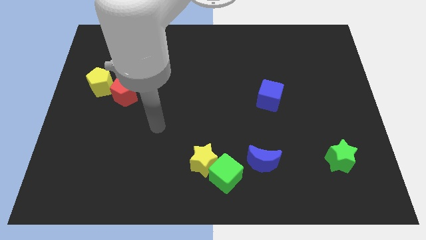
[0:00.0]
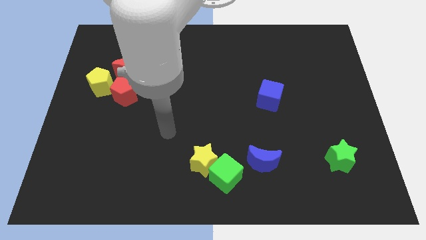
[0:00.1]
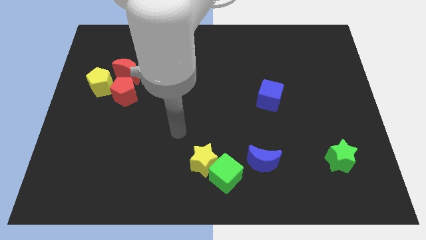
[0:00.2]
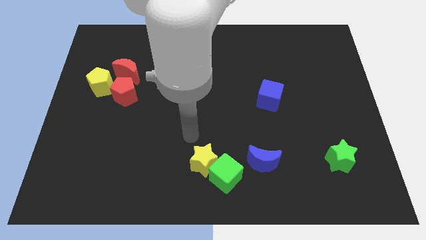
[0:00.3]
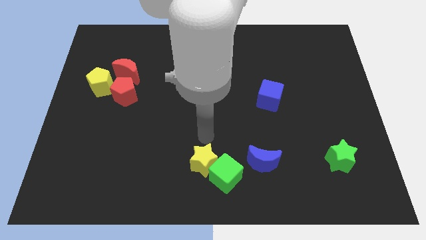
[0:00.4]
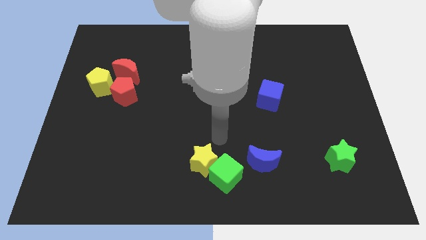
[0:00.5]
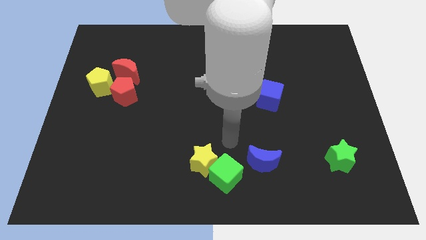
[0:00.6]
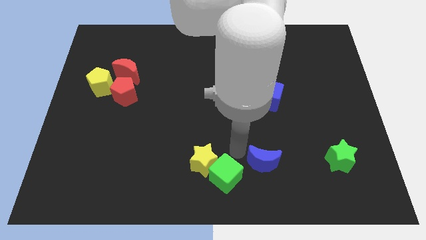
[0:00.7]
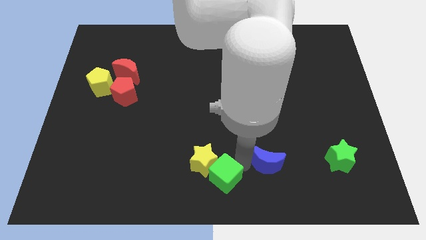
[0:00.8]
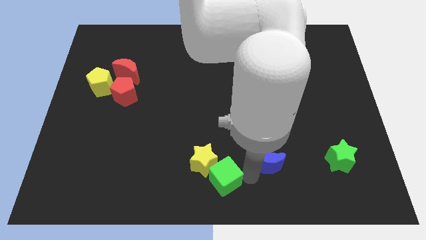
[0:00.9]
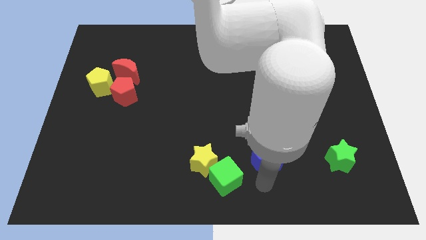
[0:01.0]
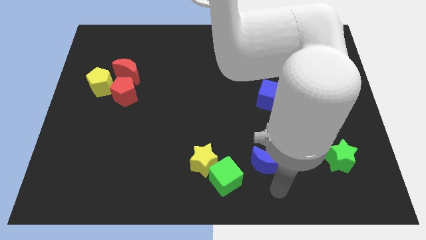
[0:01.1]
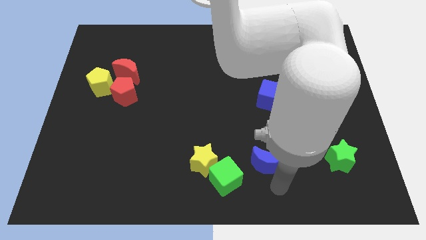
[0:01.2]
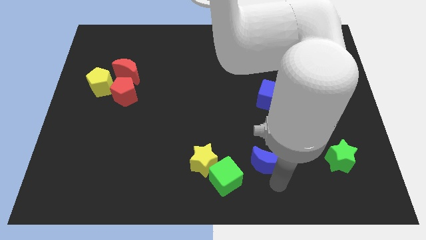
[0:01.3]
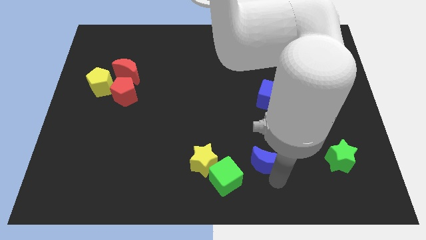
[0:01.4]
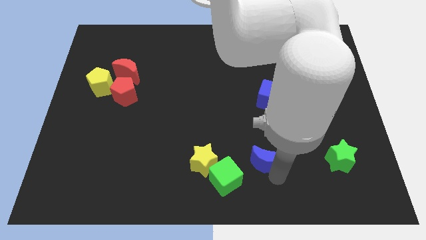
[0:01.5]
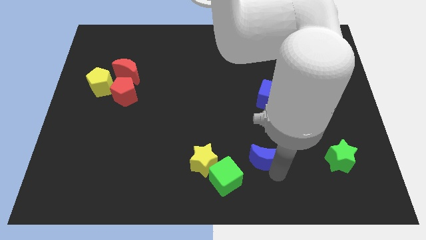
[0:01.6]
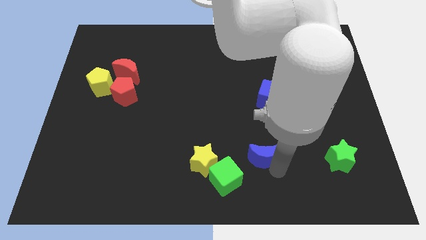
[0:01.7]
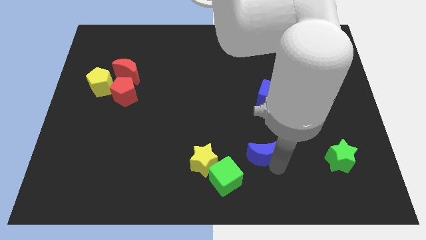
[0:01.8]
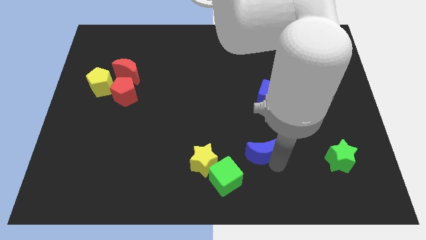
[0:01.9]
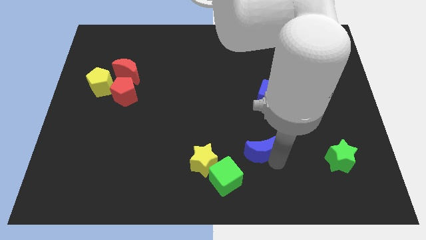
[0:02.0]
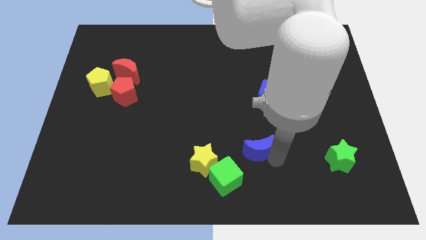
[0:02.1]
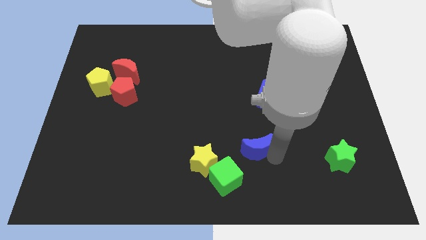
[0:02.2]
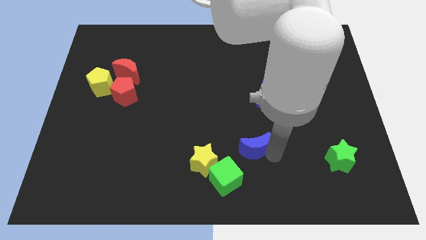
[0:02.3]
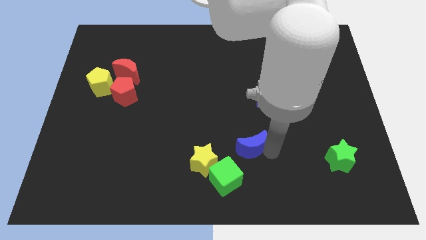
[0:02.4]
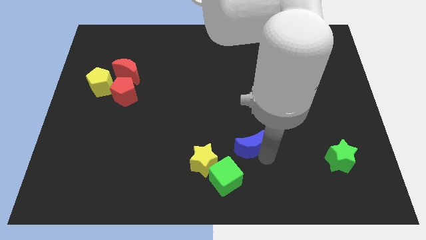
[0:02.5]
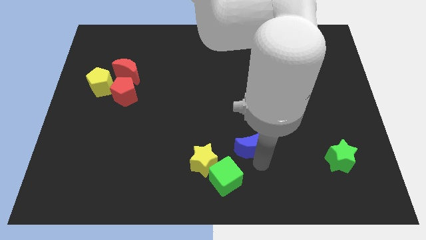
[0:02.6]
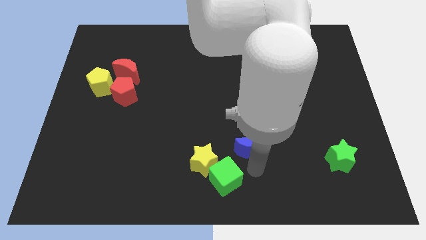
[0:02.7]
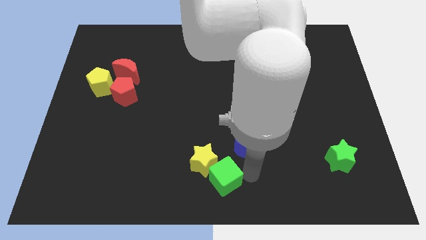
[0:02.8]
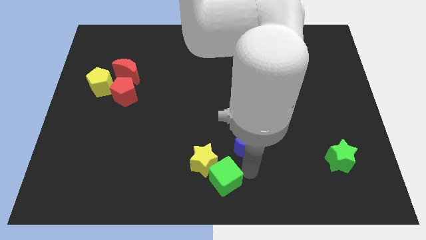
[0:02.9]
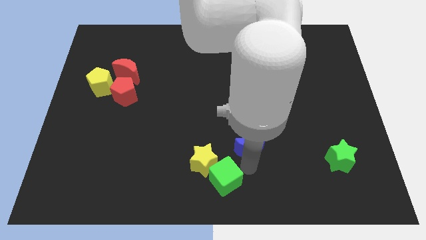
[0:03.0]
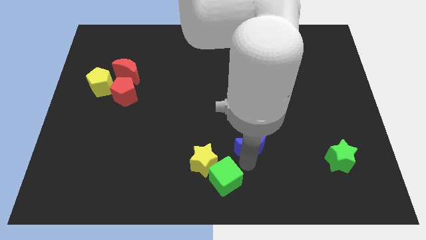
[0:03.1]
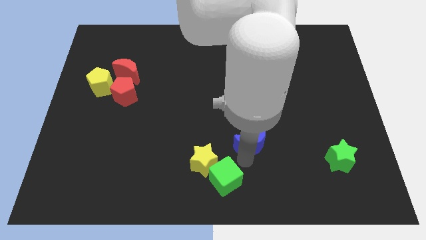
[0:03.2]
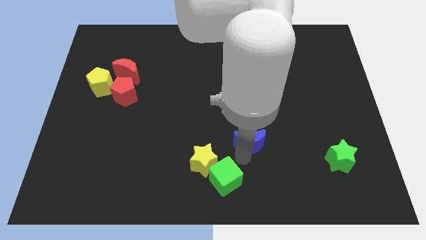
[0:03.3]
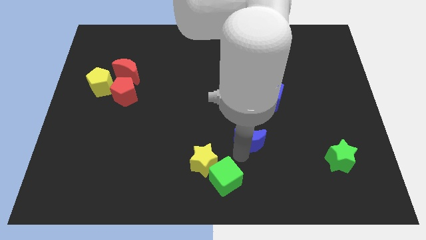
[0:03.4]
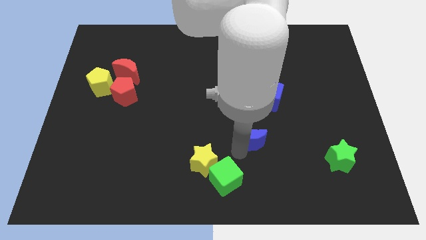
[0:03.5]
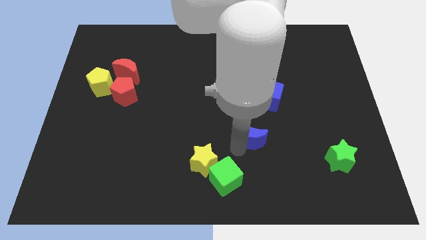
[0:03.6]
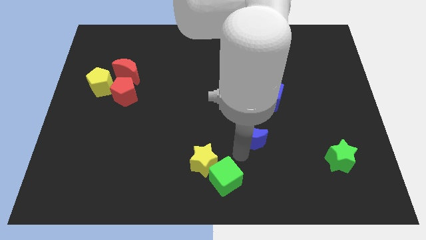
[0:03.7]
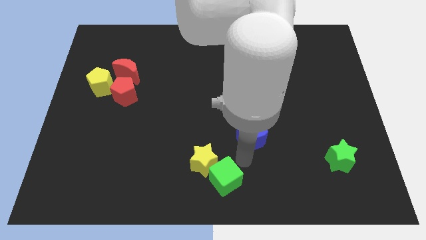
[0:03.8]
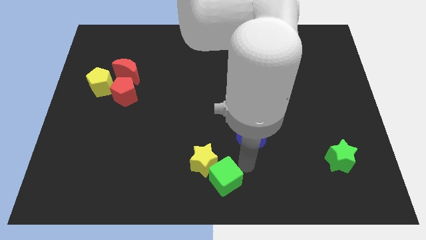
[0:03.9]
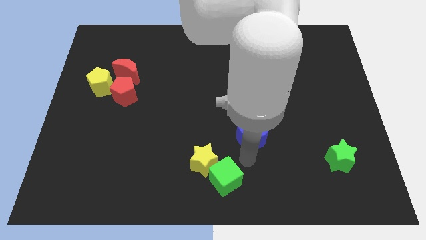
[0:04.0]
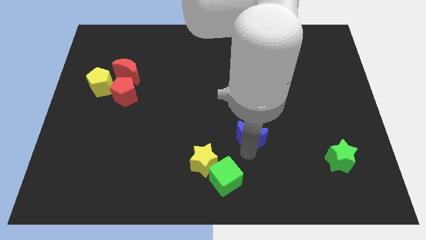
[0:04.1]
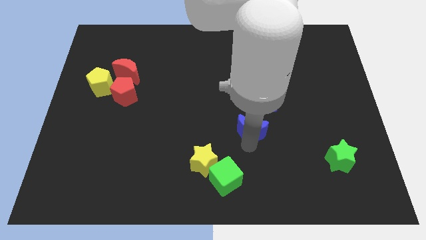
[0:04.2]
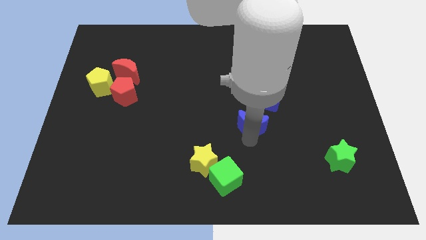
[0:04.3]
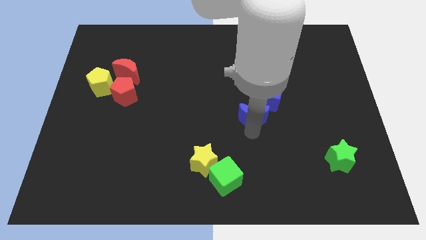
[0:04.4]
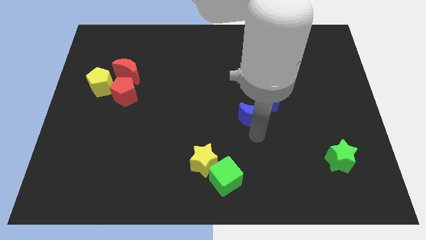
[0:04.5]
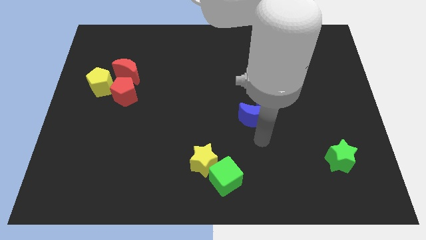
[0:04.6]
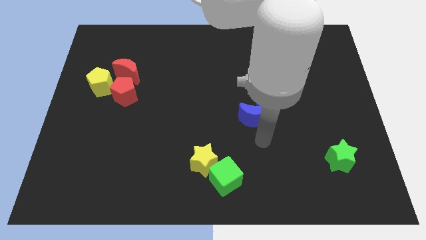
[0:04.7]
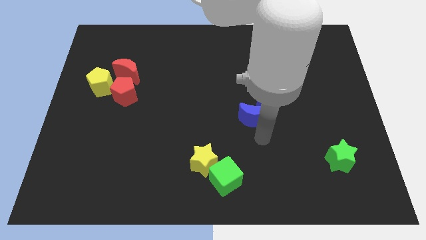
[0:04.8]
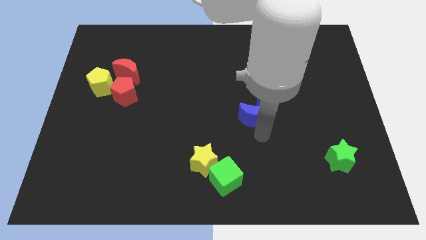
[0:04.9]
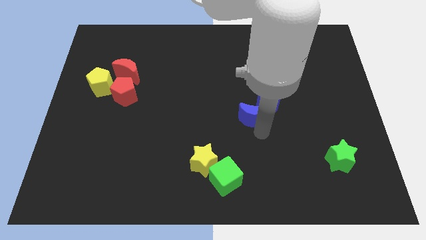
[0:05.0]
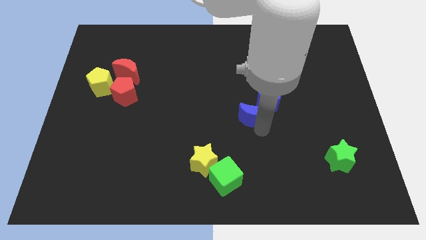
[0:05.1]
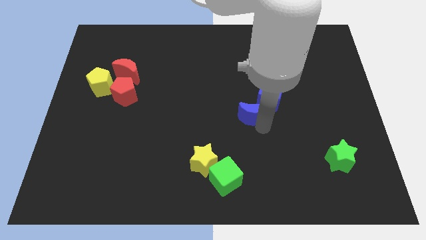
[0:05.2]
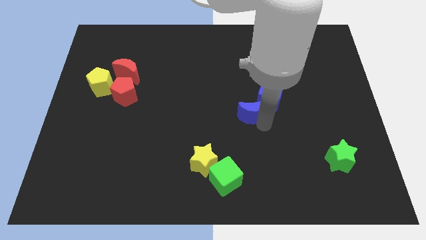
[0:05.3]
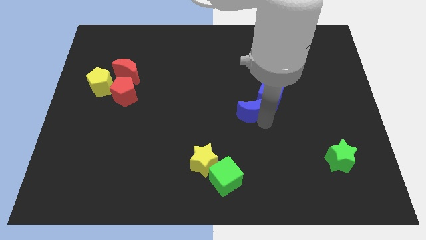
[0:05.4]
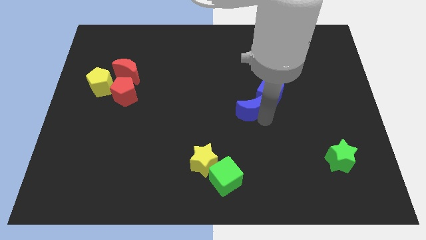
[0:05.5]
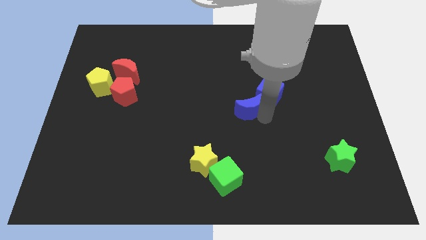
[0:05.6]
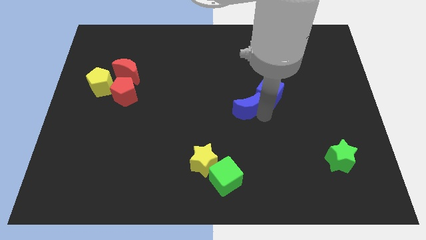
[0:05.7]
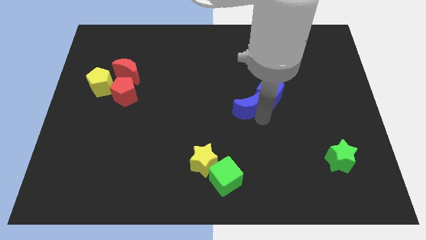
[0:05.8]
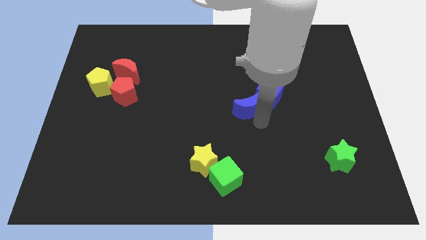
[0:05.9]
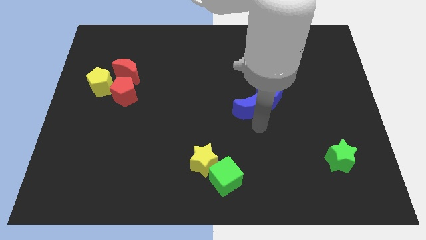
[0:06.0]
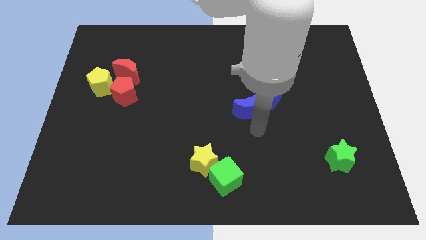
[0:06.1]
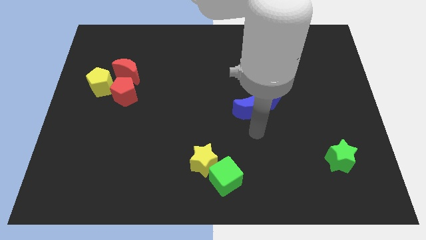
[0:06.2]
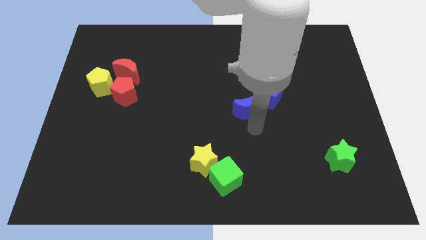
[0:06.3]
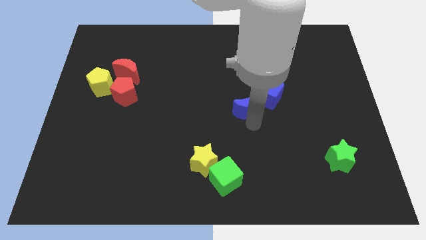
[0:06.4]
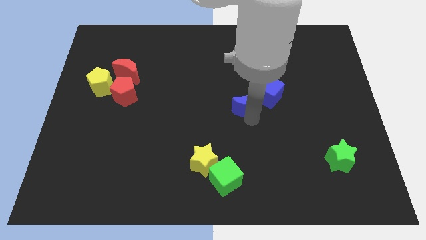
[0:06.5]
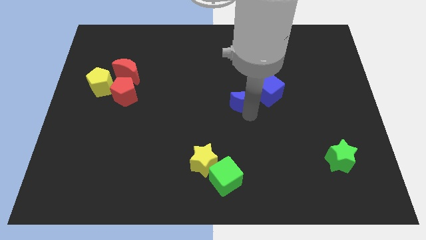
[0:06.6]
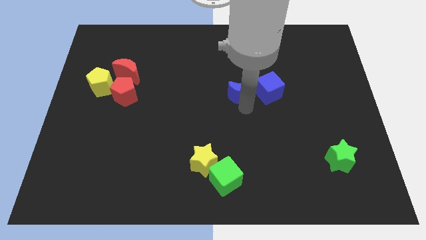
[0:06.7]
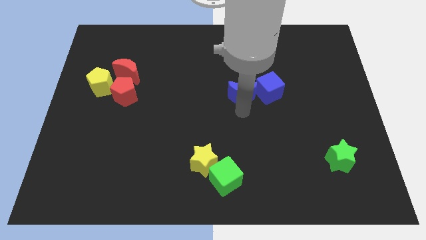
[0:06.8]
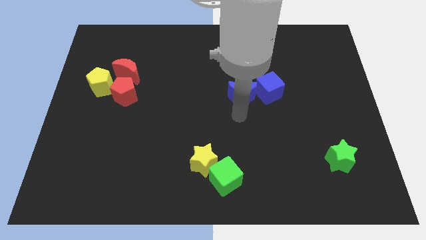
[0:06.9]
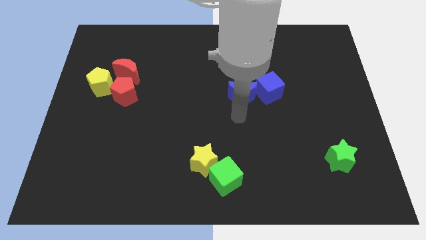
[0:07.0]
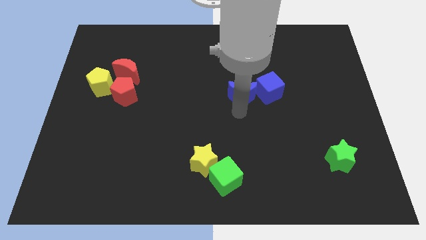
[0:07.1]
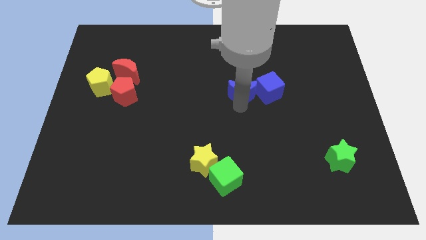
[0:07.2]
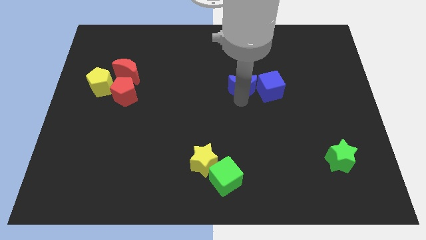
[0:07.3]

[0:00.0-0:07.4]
slide the blue moon up

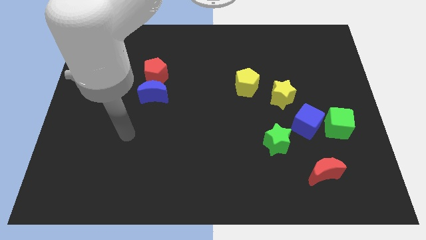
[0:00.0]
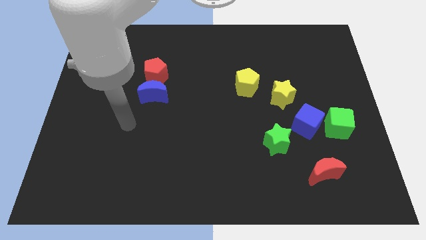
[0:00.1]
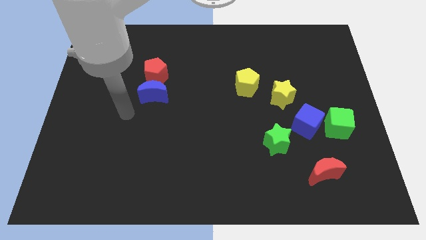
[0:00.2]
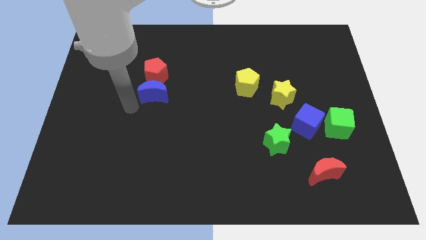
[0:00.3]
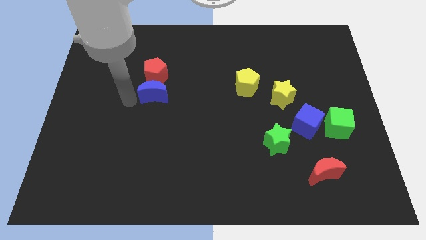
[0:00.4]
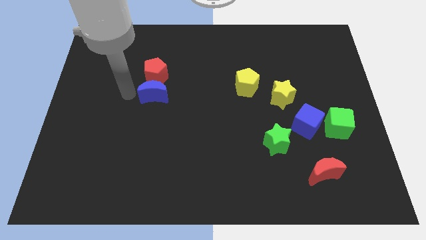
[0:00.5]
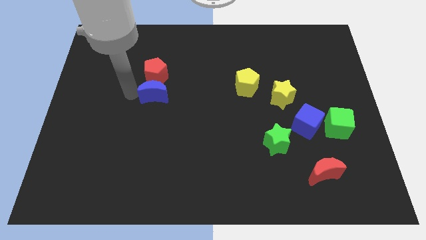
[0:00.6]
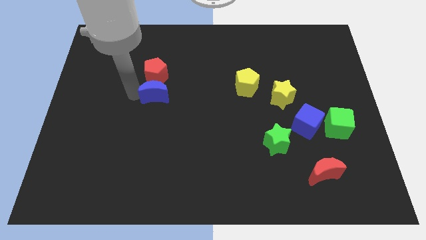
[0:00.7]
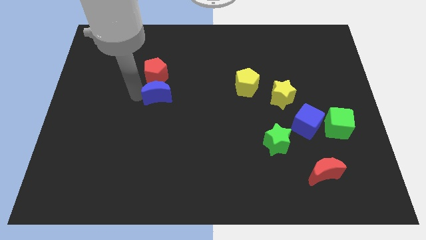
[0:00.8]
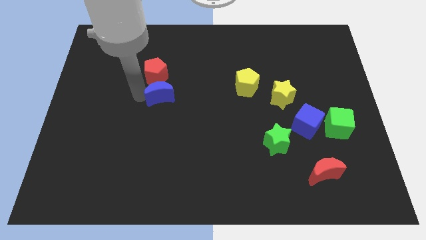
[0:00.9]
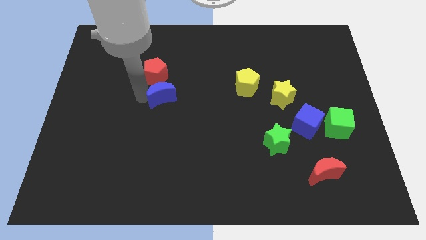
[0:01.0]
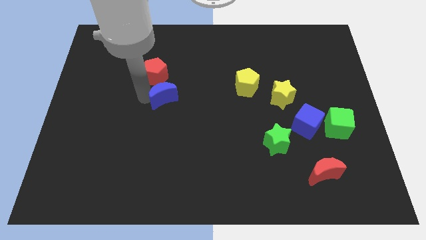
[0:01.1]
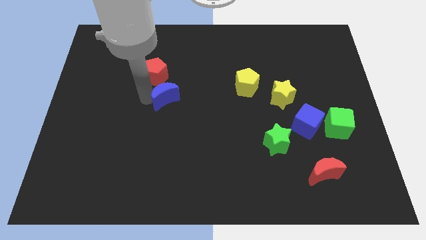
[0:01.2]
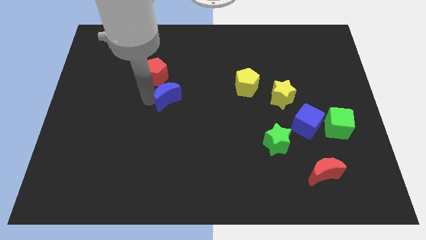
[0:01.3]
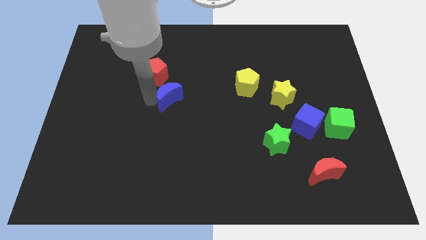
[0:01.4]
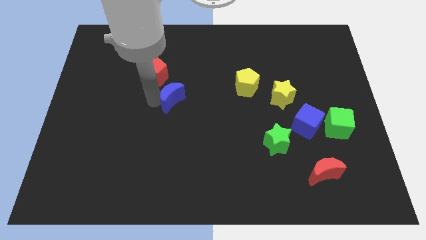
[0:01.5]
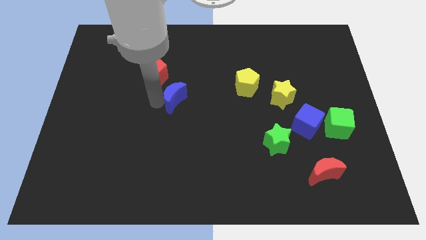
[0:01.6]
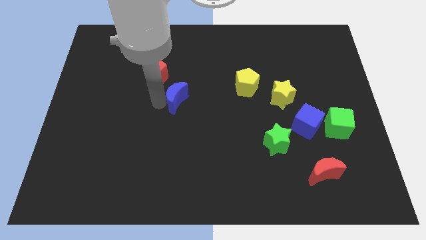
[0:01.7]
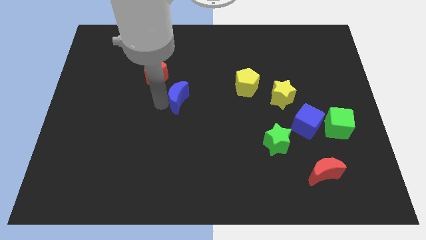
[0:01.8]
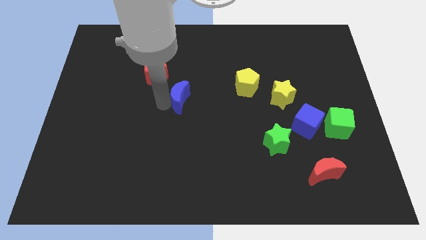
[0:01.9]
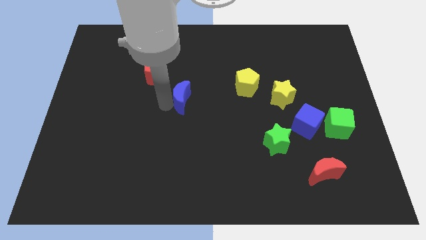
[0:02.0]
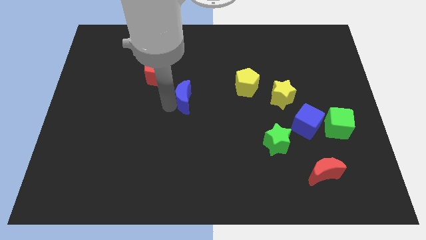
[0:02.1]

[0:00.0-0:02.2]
push the blue moon to the right a little bit
